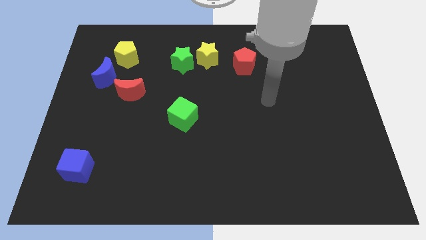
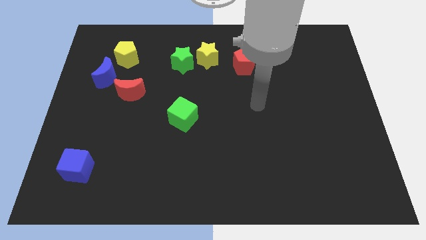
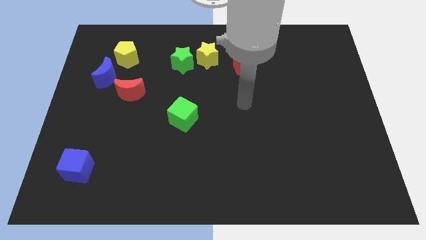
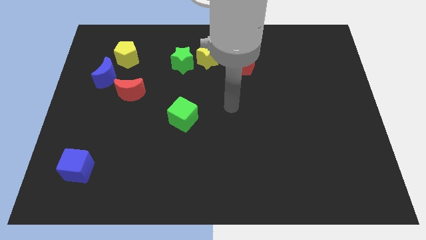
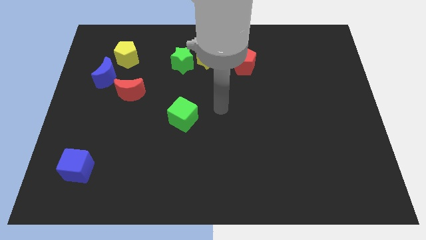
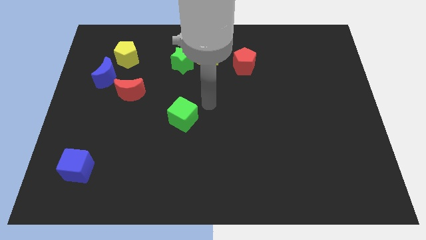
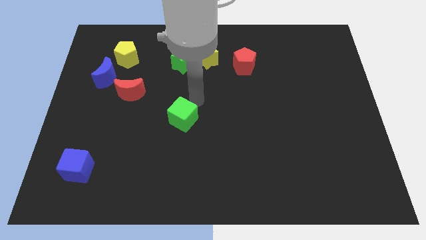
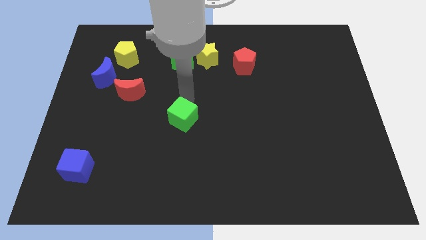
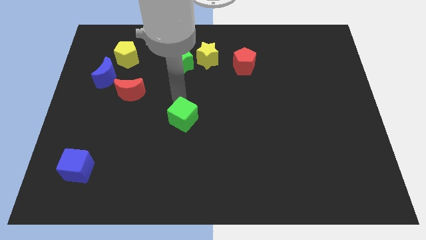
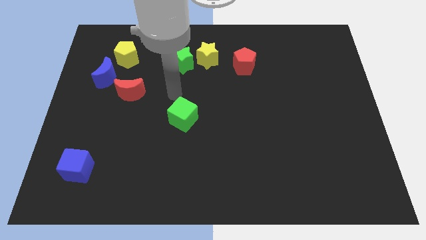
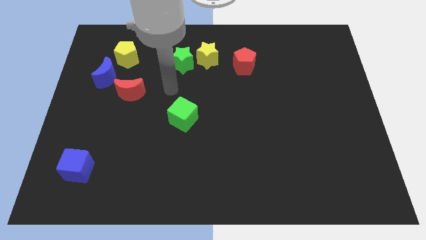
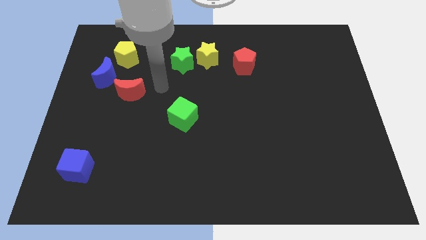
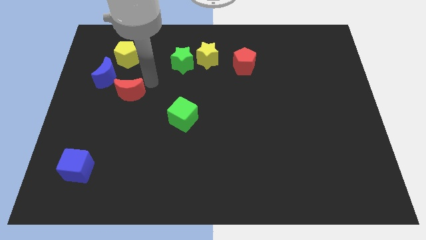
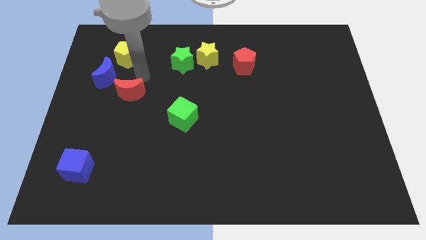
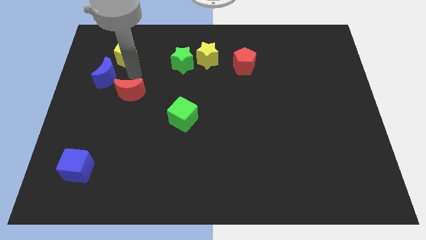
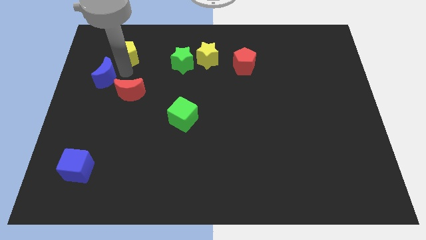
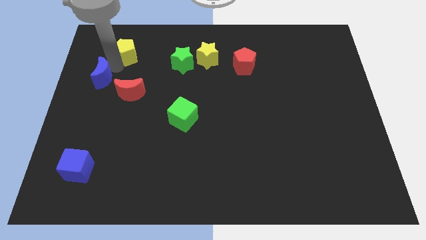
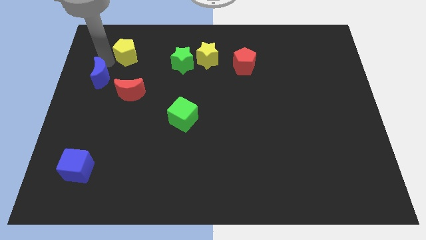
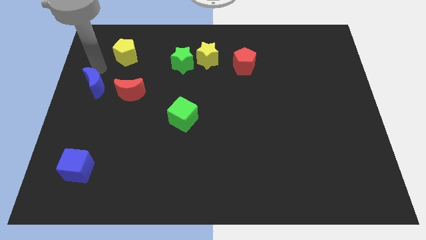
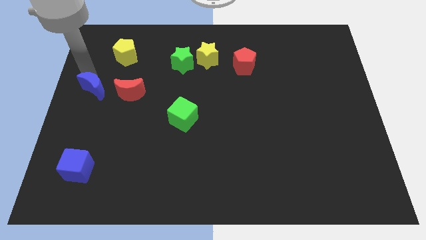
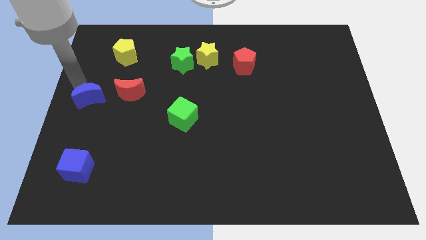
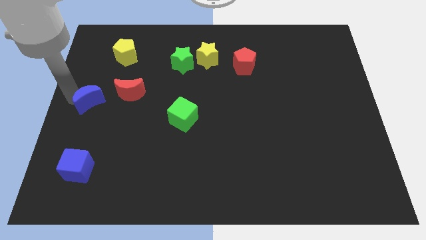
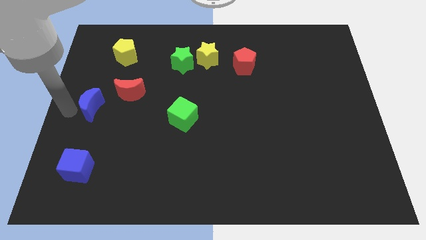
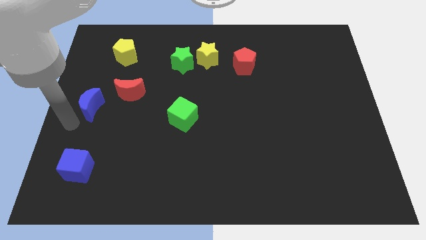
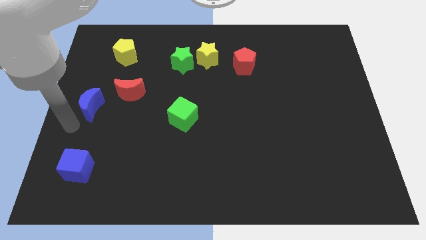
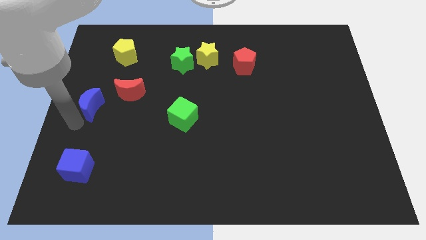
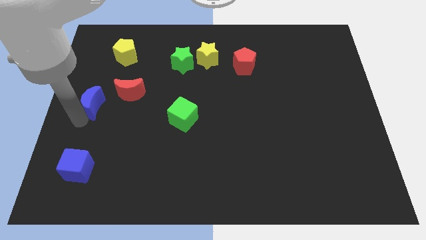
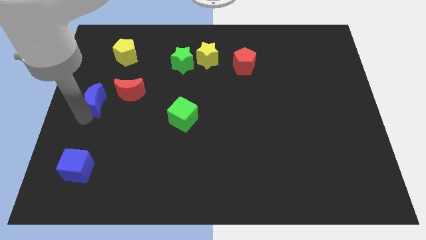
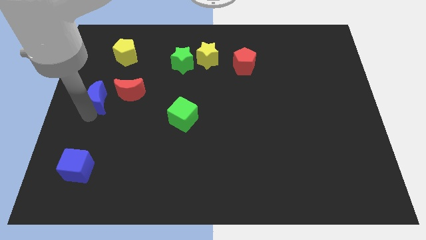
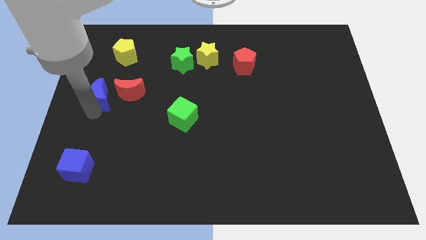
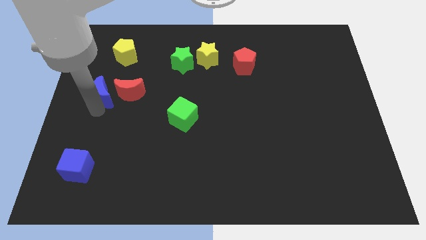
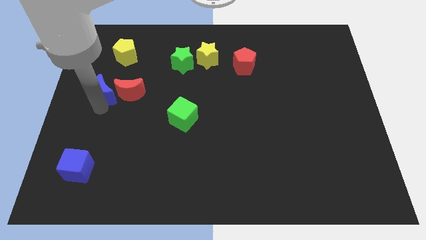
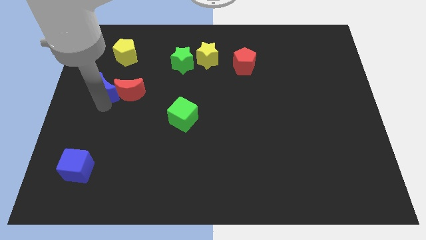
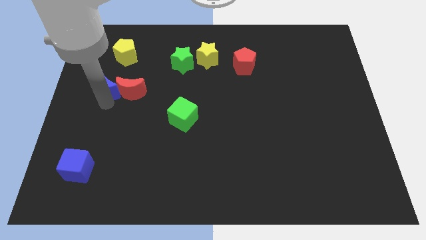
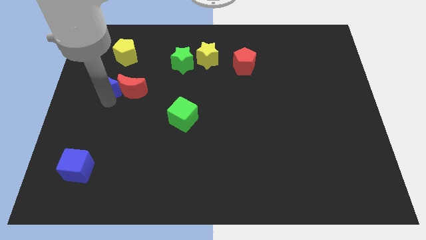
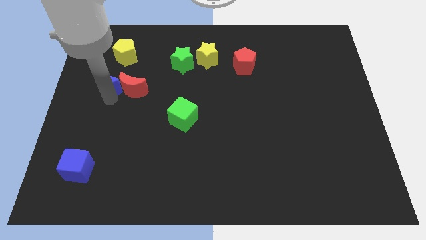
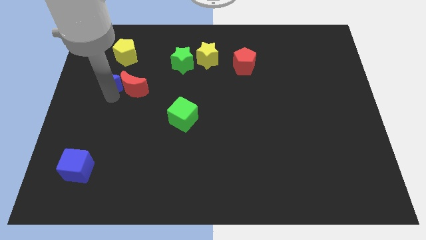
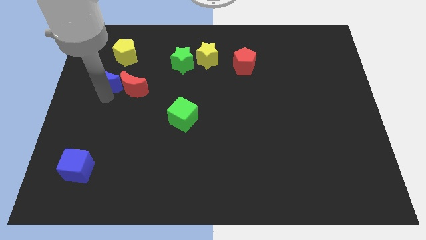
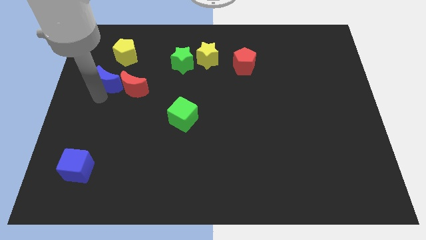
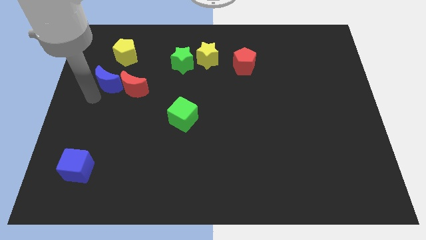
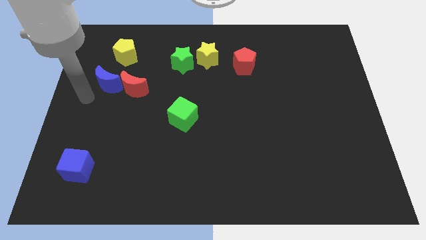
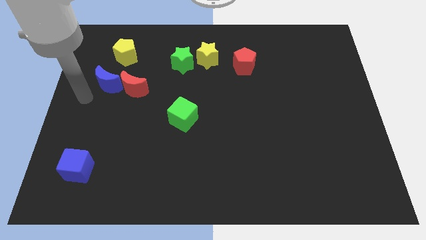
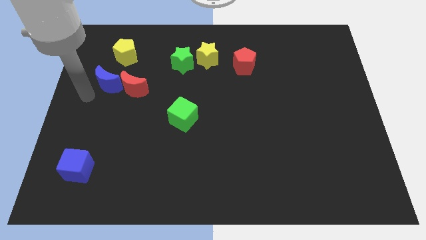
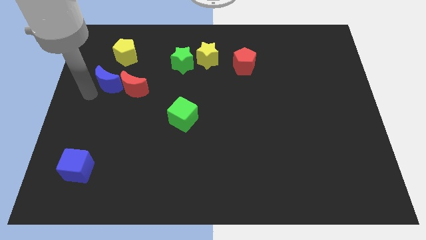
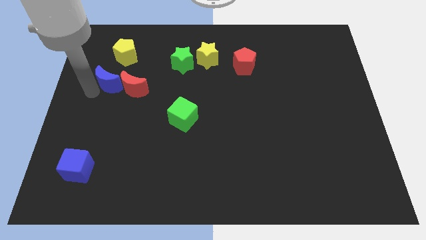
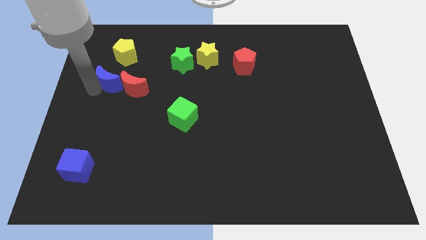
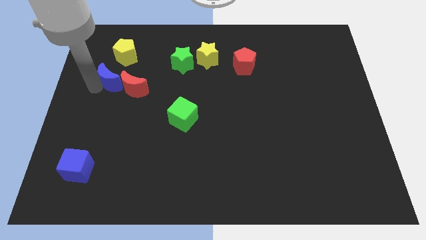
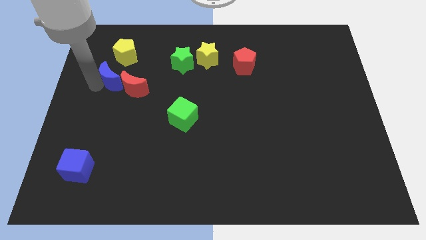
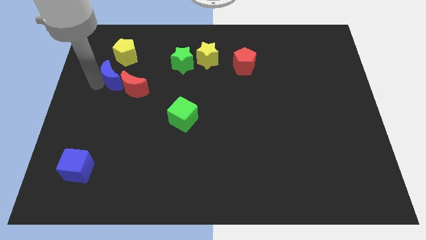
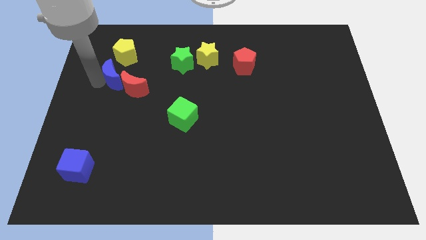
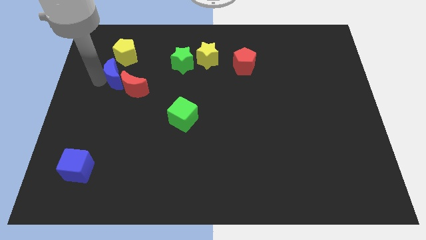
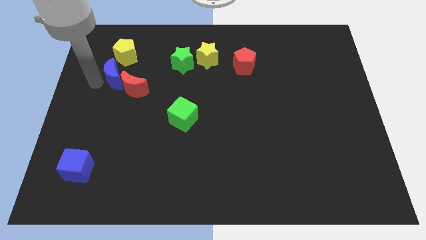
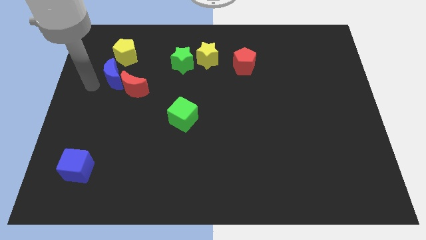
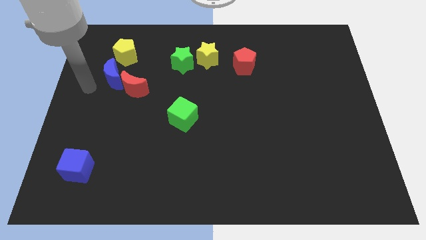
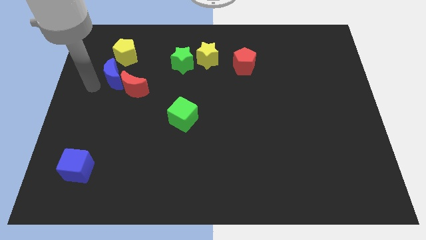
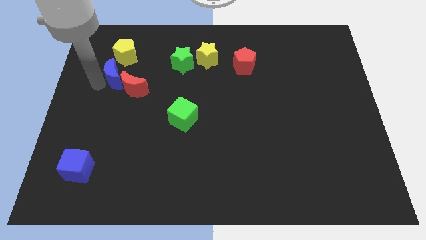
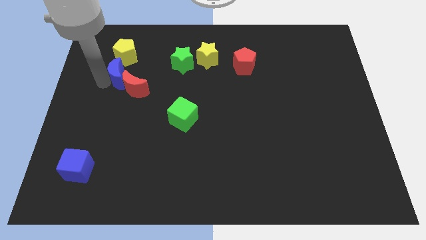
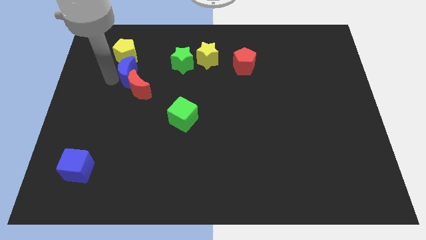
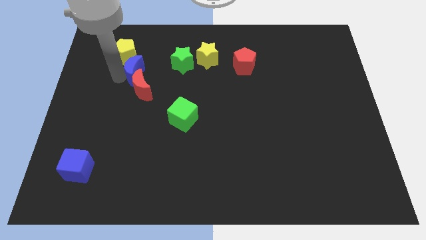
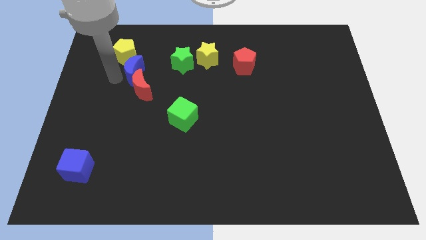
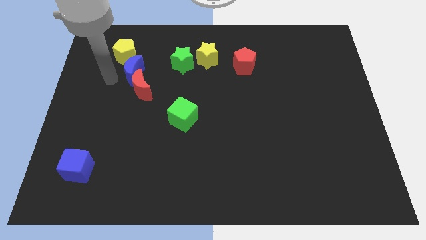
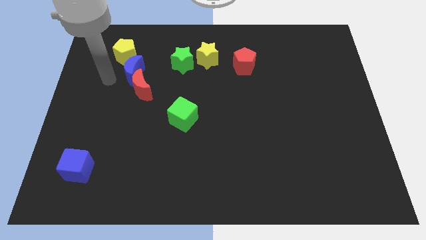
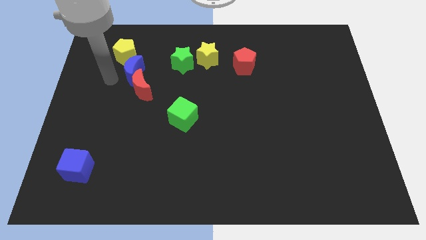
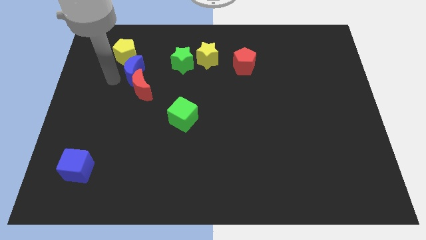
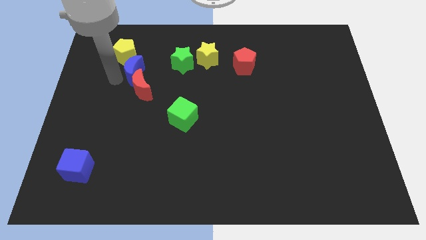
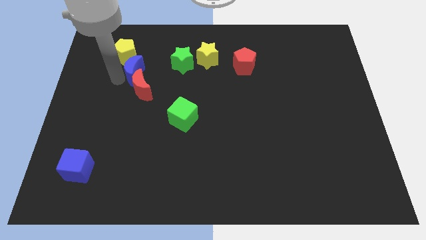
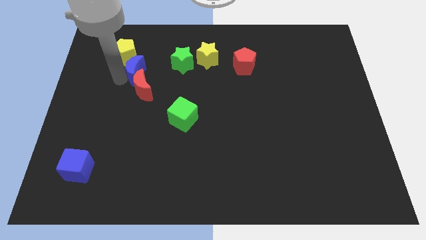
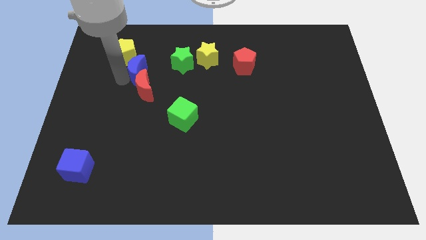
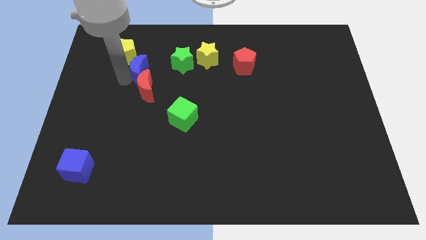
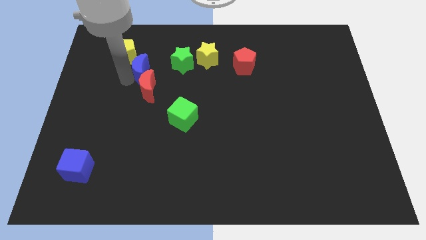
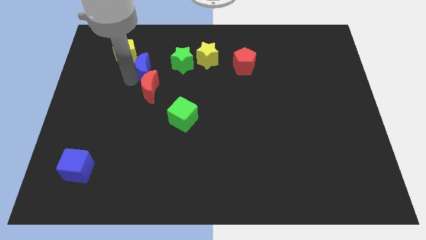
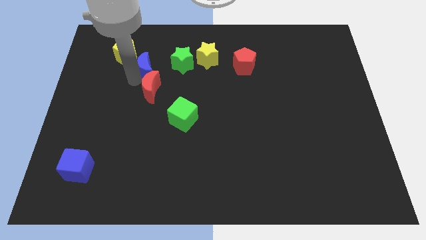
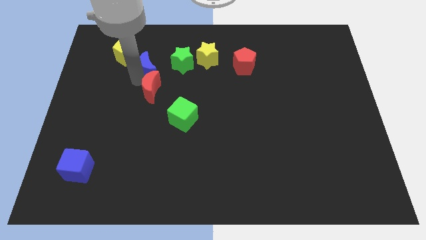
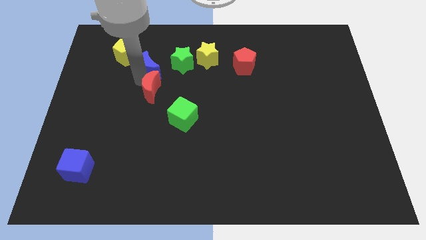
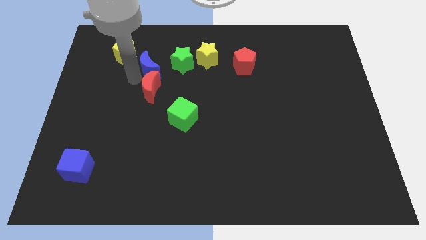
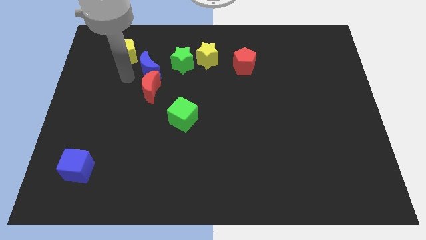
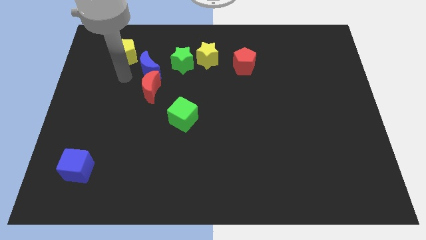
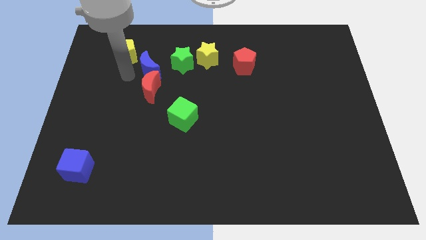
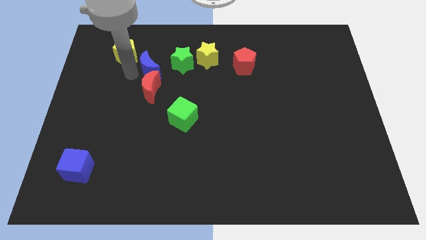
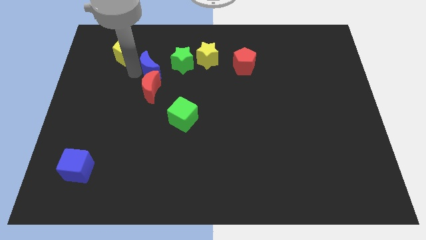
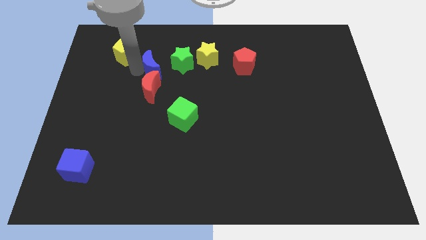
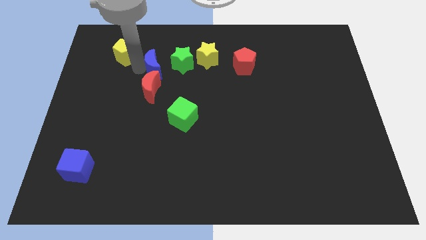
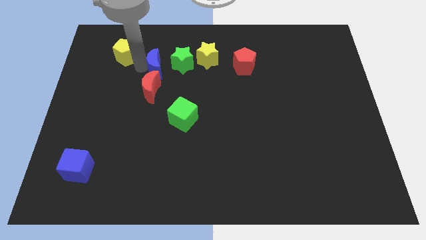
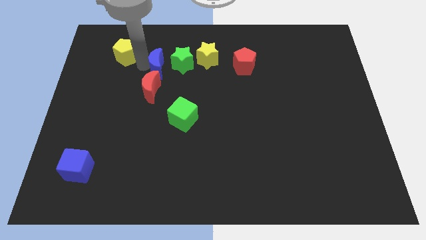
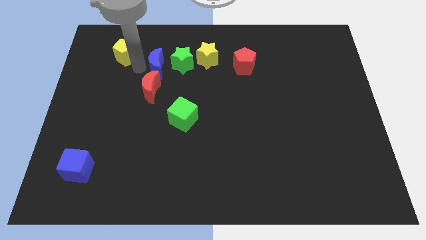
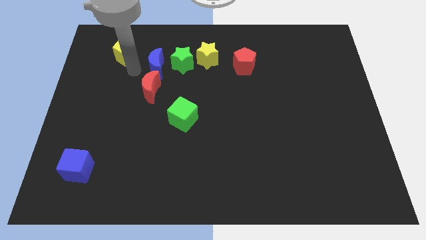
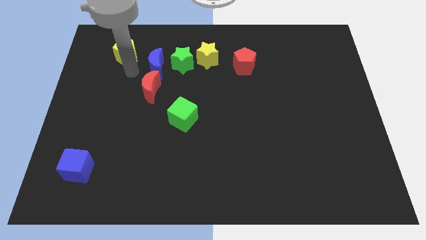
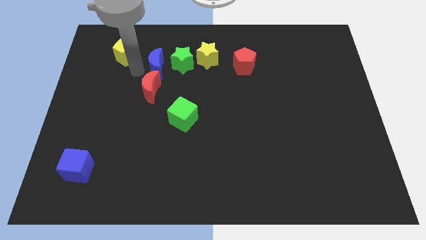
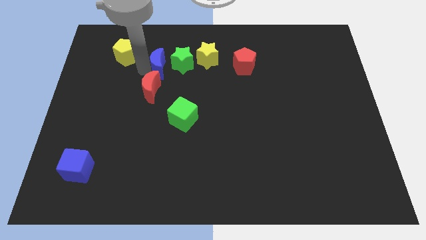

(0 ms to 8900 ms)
move the blue moon close to the green star
